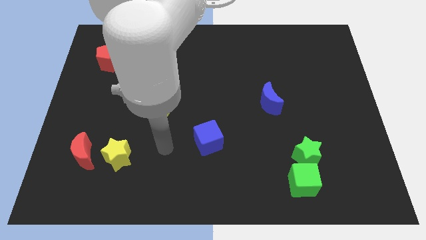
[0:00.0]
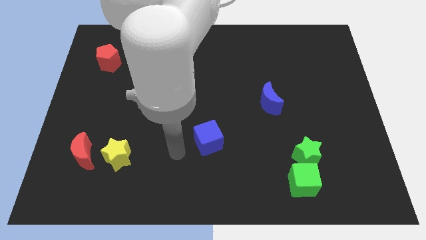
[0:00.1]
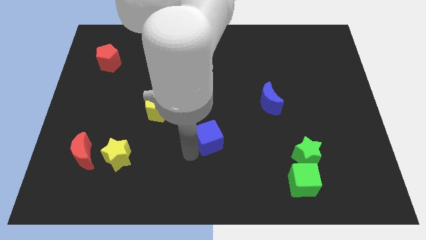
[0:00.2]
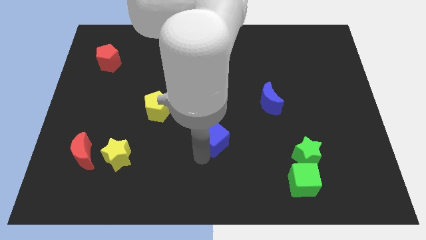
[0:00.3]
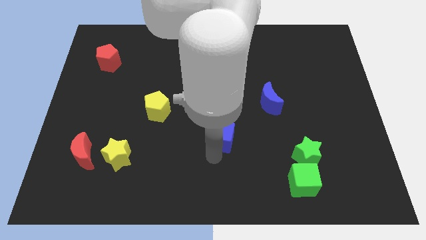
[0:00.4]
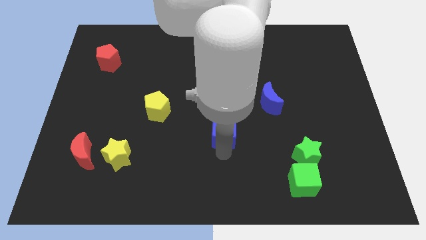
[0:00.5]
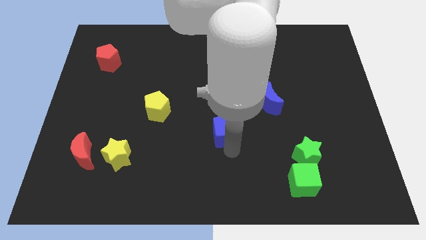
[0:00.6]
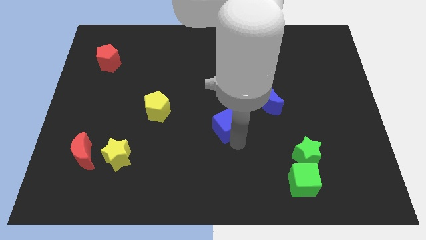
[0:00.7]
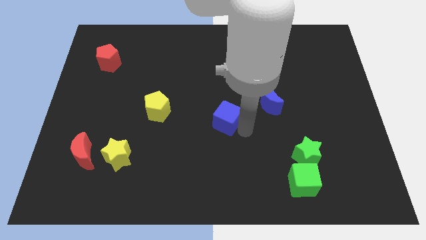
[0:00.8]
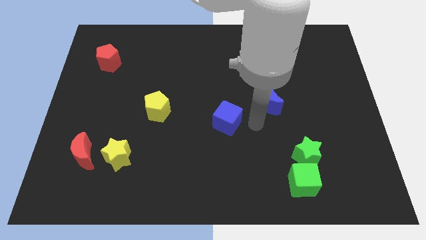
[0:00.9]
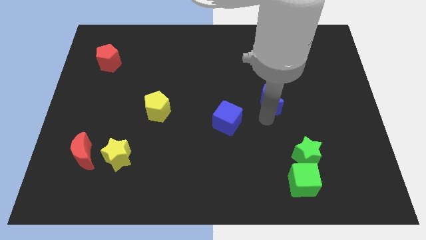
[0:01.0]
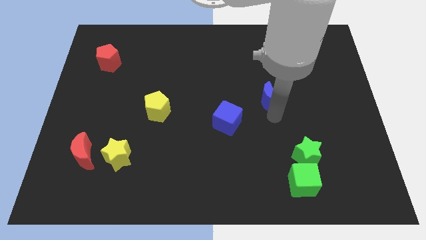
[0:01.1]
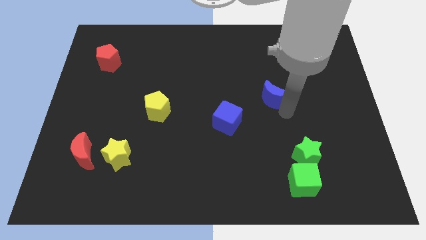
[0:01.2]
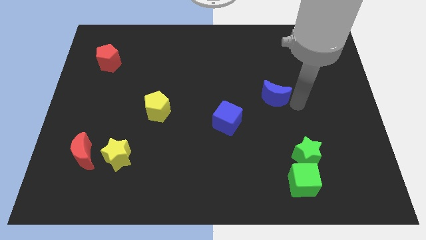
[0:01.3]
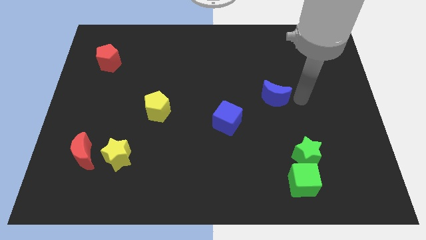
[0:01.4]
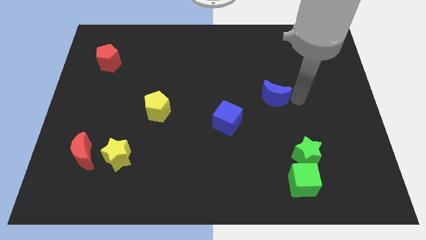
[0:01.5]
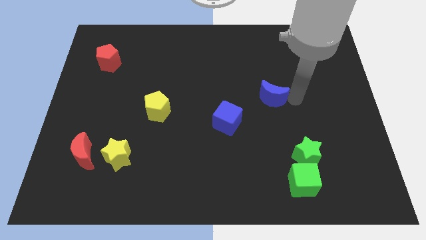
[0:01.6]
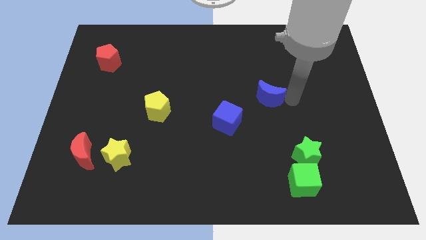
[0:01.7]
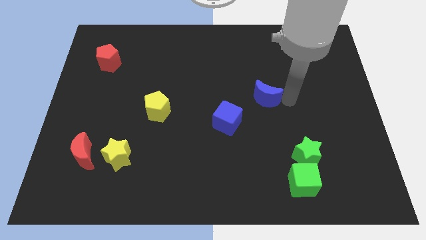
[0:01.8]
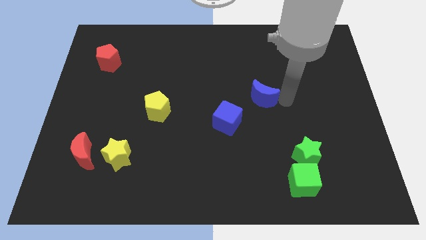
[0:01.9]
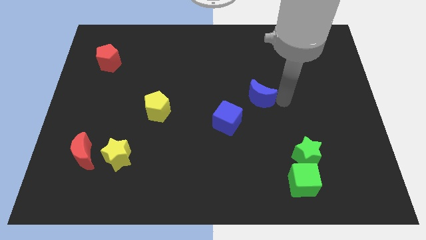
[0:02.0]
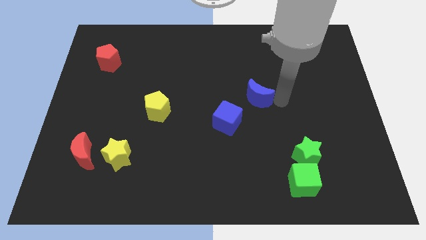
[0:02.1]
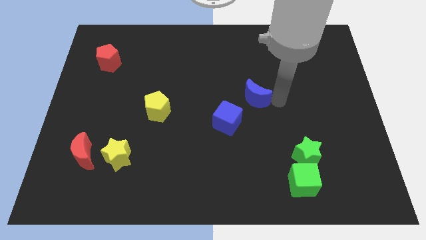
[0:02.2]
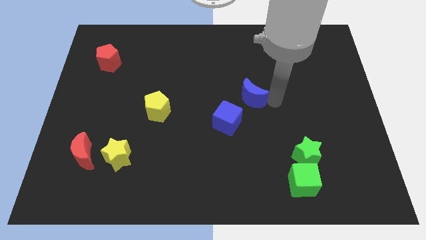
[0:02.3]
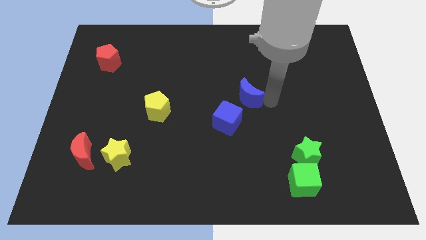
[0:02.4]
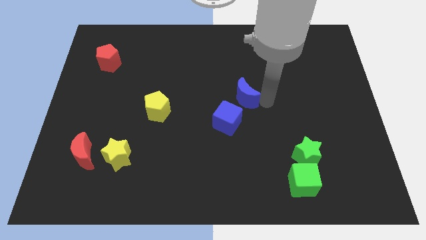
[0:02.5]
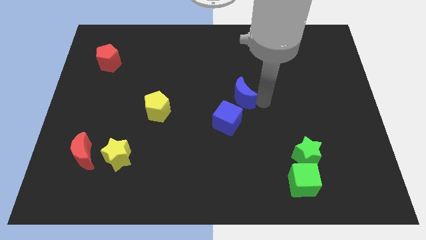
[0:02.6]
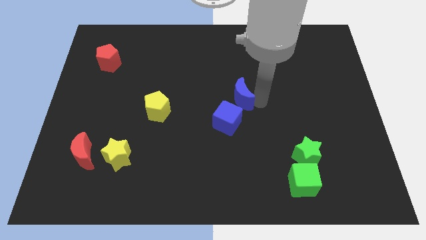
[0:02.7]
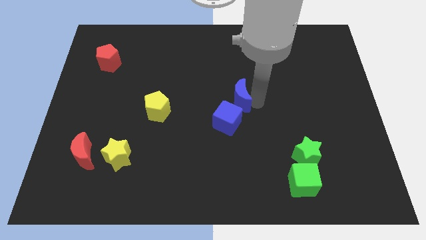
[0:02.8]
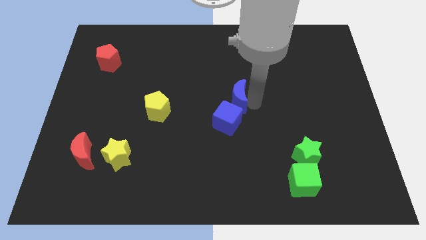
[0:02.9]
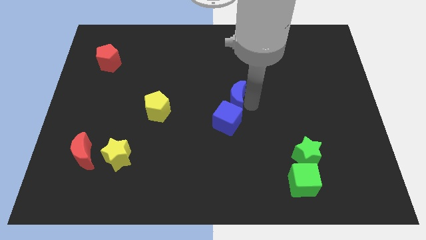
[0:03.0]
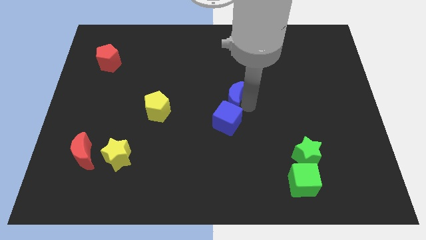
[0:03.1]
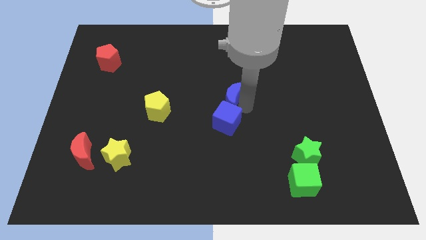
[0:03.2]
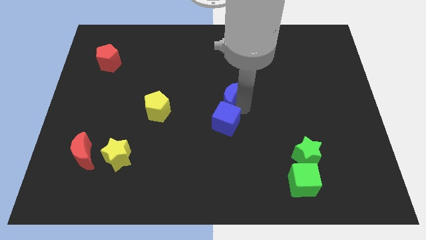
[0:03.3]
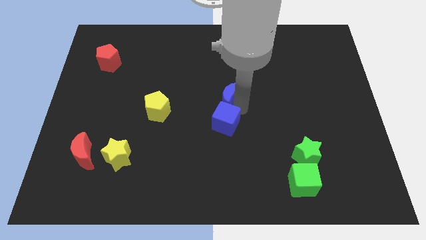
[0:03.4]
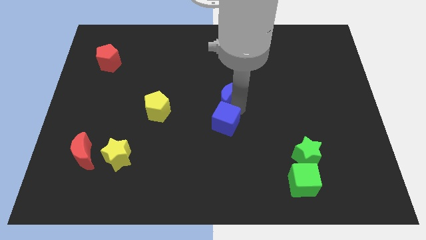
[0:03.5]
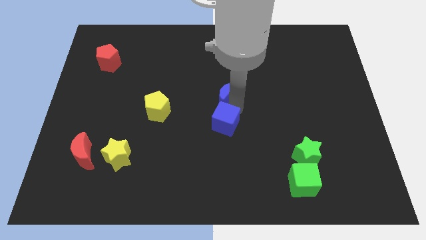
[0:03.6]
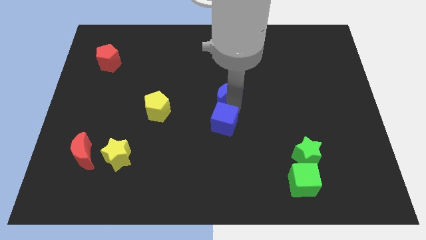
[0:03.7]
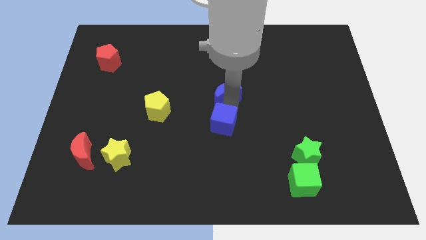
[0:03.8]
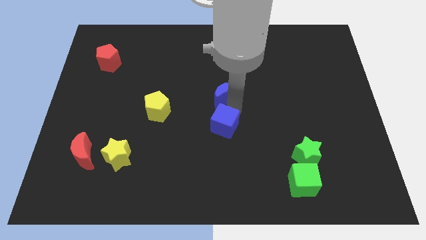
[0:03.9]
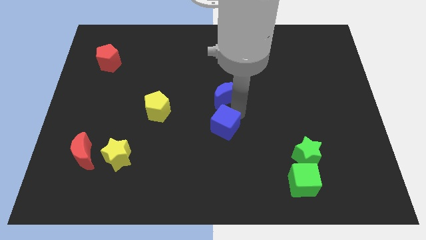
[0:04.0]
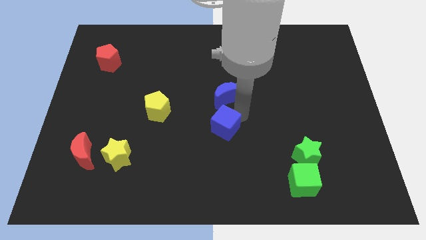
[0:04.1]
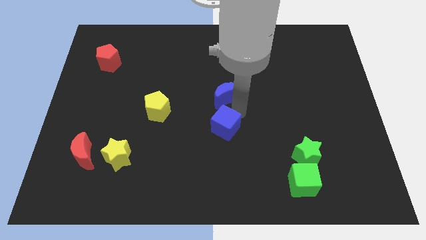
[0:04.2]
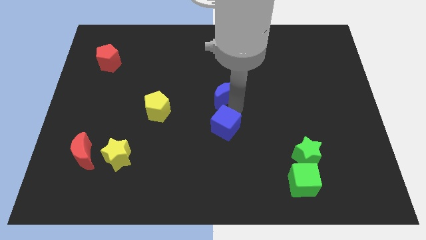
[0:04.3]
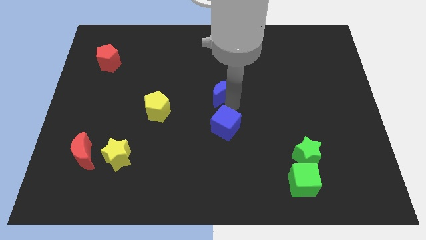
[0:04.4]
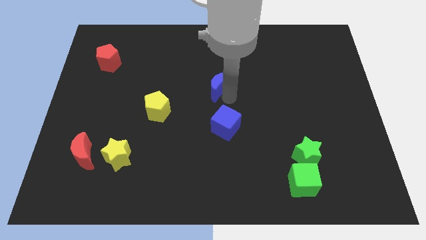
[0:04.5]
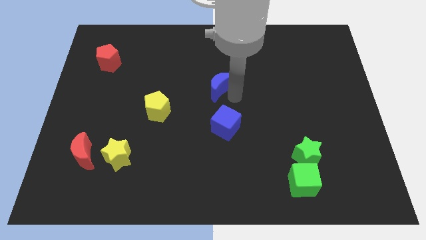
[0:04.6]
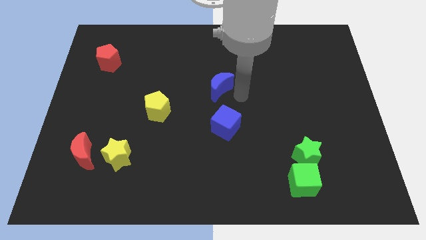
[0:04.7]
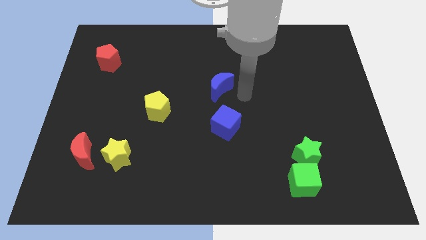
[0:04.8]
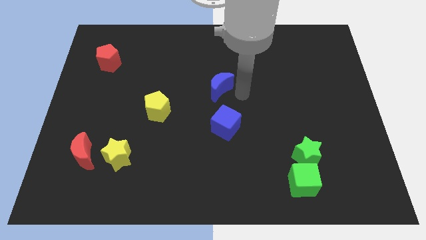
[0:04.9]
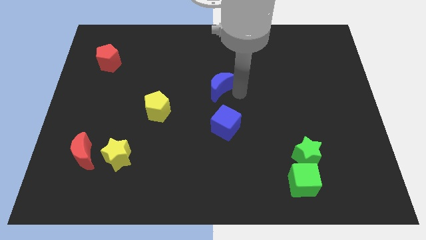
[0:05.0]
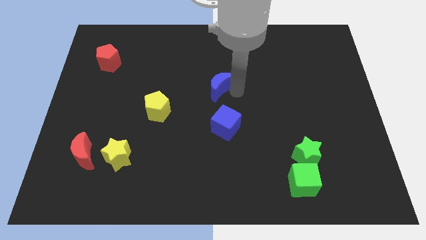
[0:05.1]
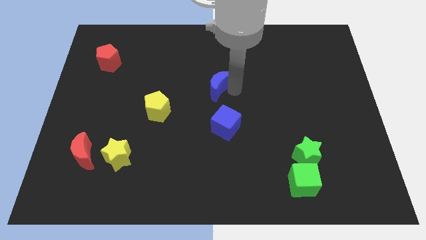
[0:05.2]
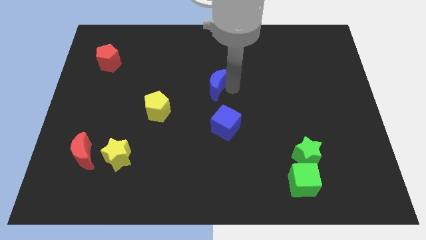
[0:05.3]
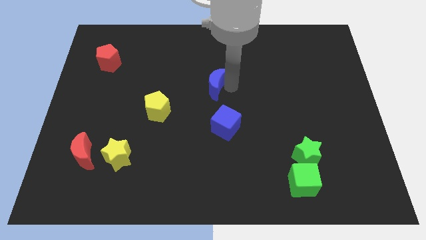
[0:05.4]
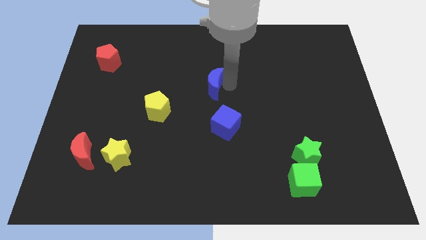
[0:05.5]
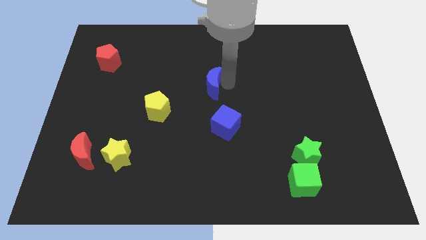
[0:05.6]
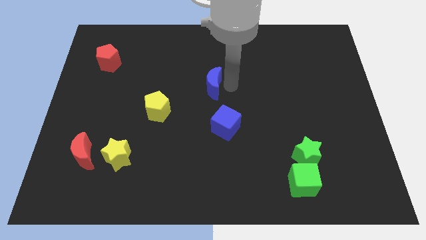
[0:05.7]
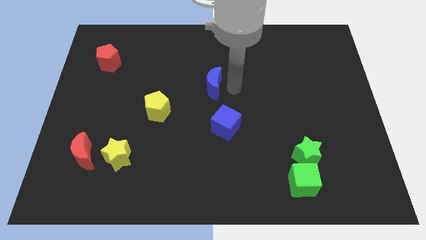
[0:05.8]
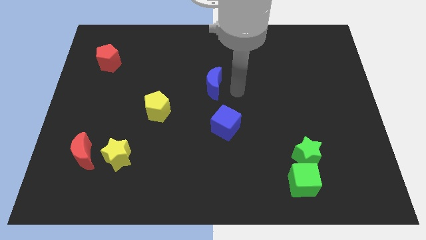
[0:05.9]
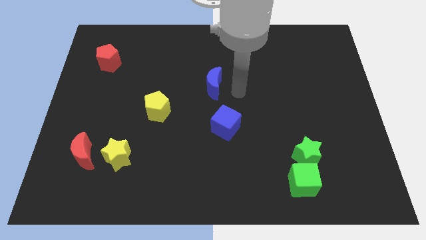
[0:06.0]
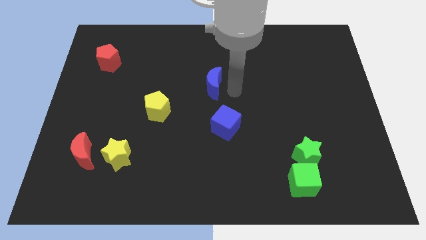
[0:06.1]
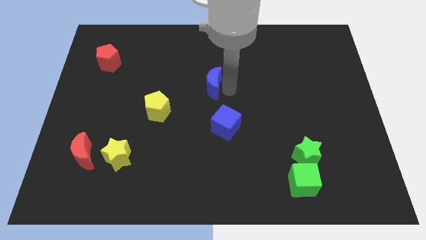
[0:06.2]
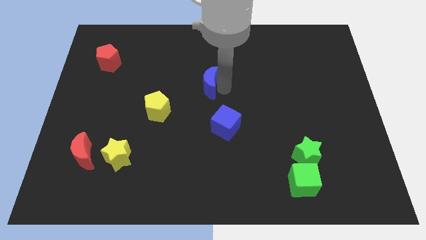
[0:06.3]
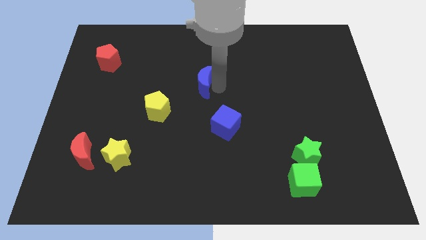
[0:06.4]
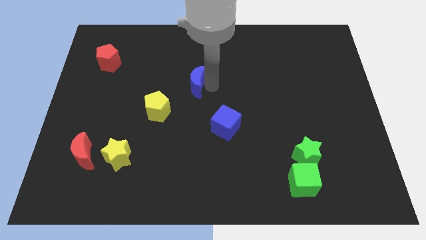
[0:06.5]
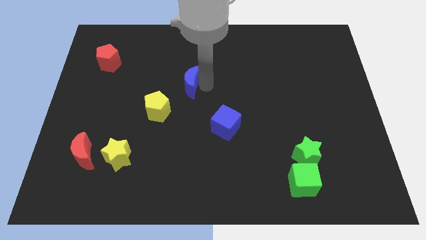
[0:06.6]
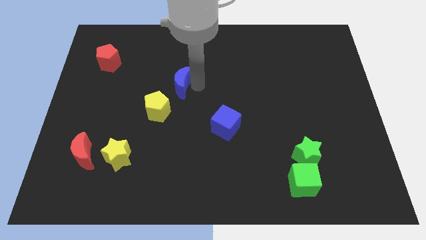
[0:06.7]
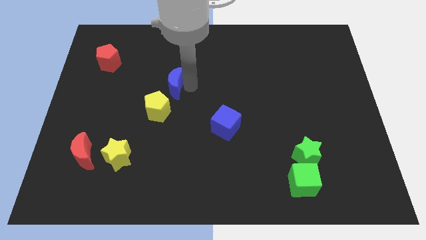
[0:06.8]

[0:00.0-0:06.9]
slide the blue moon above the yellow pentagon

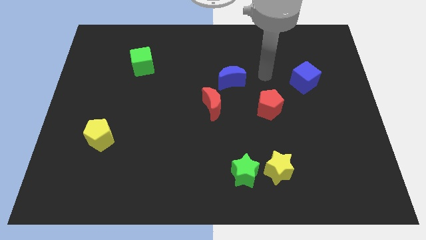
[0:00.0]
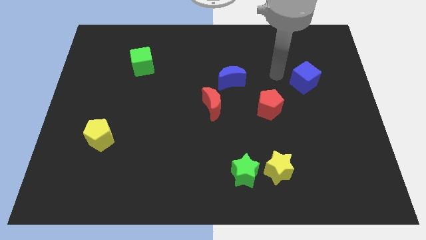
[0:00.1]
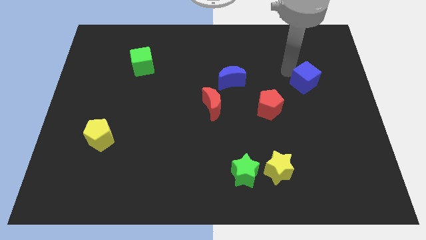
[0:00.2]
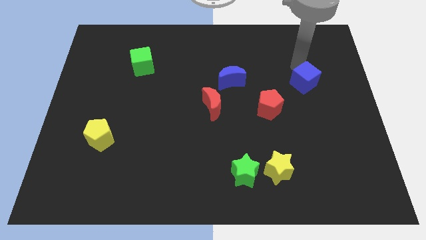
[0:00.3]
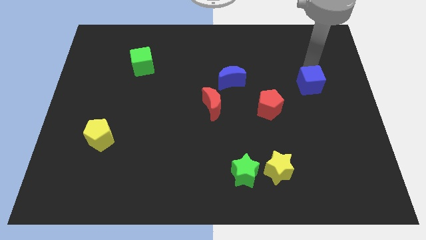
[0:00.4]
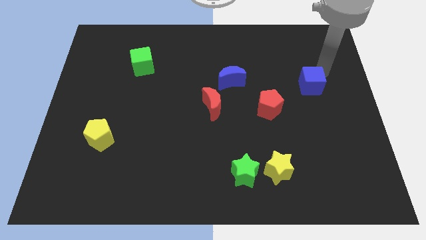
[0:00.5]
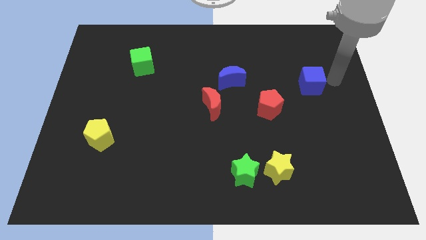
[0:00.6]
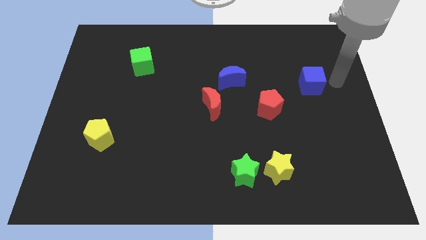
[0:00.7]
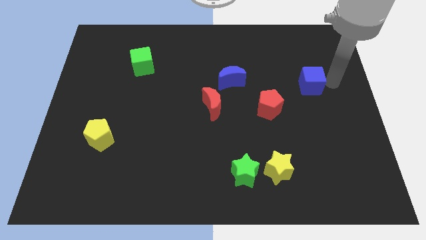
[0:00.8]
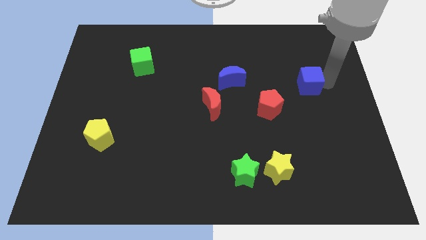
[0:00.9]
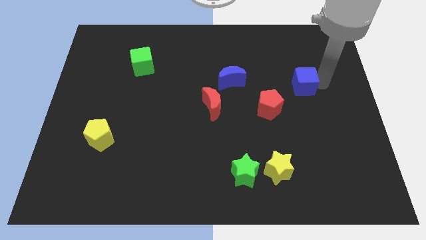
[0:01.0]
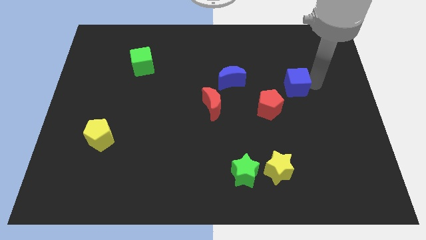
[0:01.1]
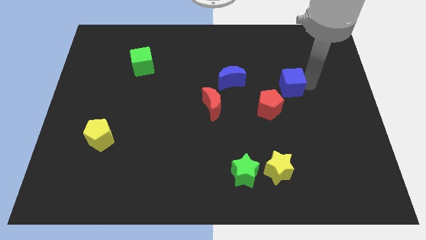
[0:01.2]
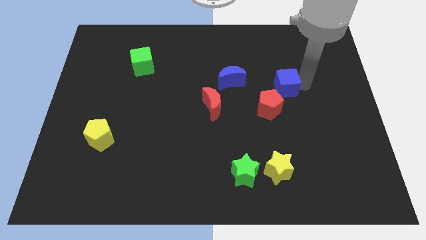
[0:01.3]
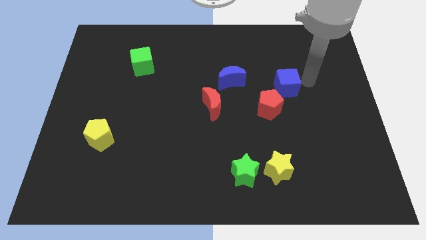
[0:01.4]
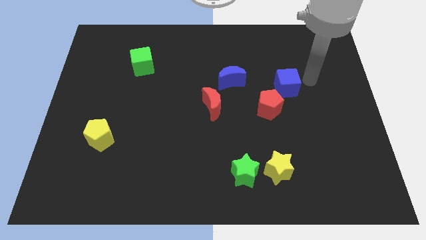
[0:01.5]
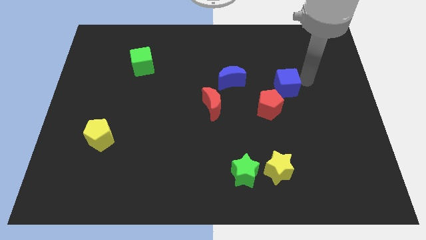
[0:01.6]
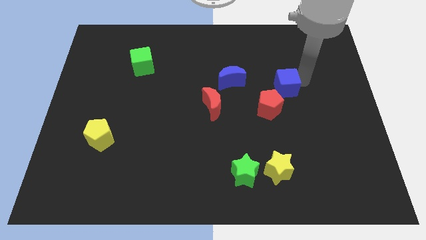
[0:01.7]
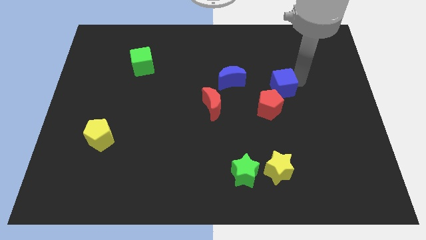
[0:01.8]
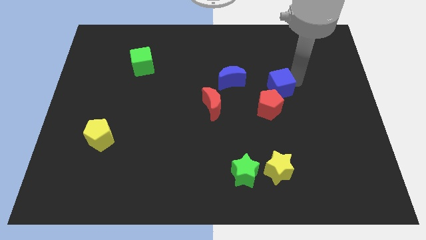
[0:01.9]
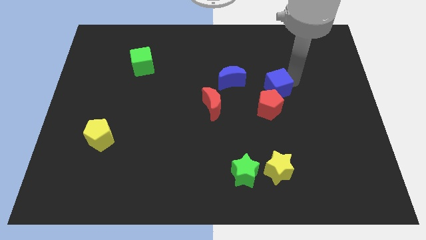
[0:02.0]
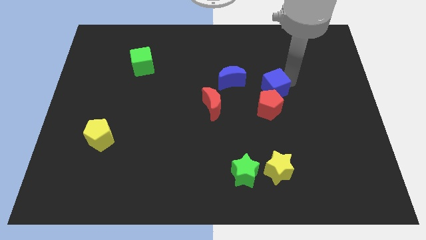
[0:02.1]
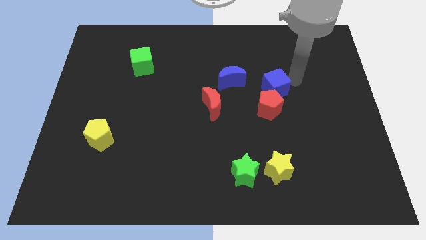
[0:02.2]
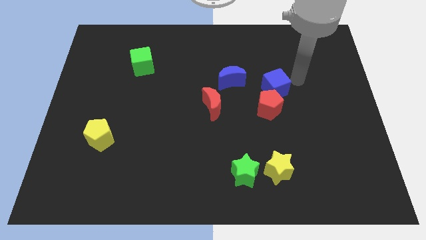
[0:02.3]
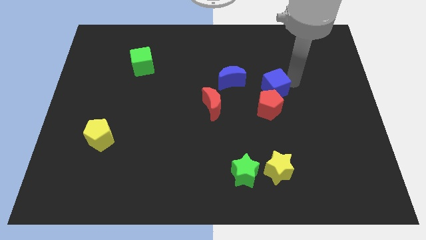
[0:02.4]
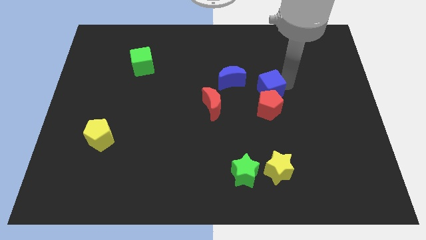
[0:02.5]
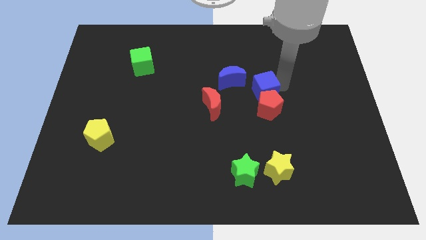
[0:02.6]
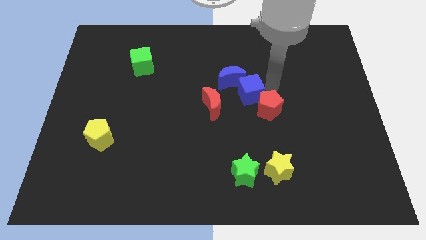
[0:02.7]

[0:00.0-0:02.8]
slide the blue cube to the bottom side of the blue moon
